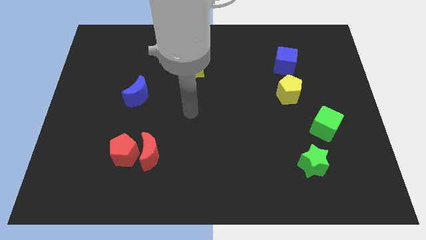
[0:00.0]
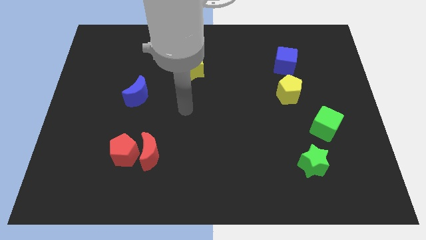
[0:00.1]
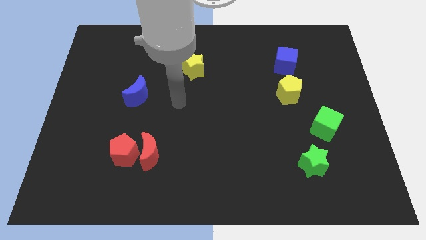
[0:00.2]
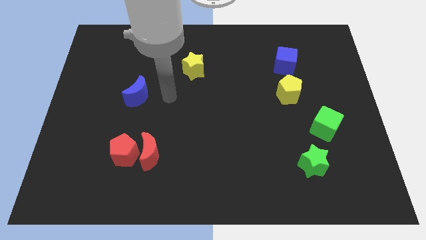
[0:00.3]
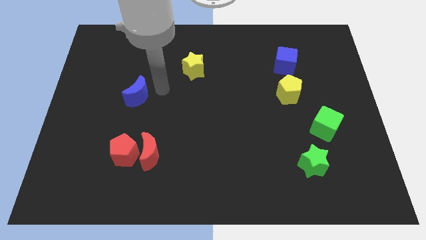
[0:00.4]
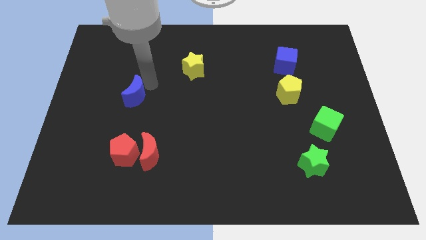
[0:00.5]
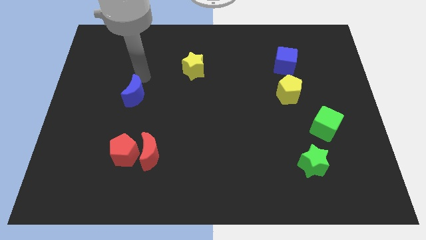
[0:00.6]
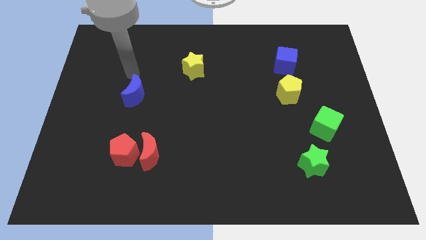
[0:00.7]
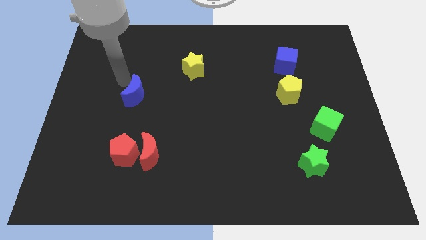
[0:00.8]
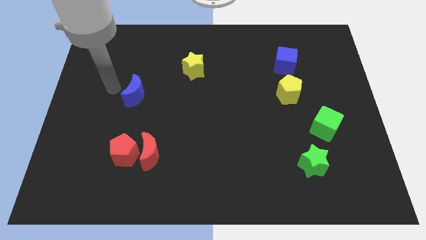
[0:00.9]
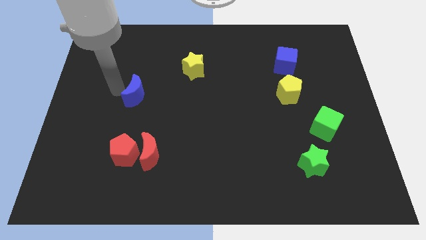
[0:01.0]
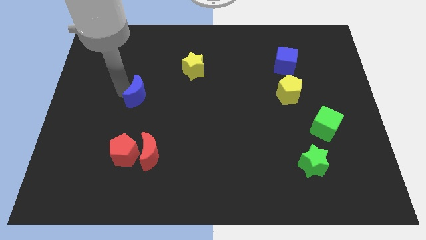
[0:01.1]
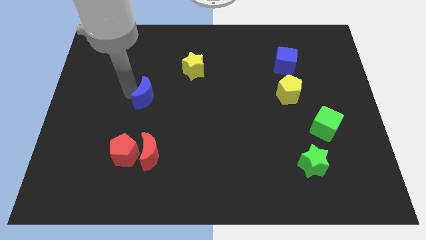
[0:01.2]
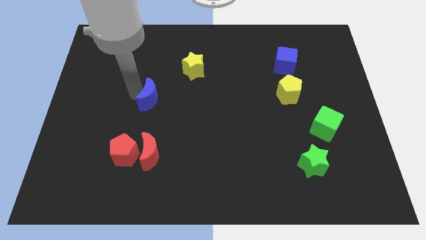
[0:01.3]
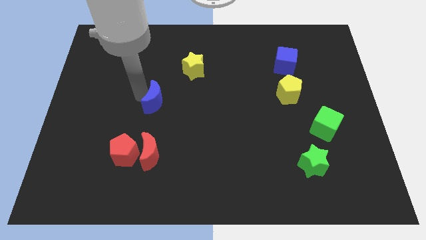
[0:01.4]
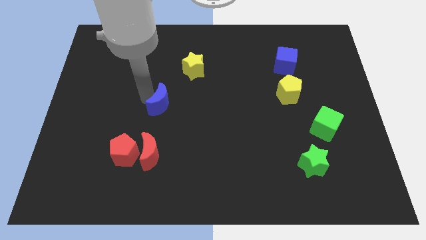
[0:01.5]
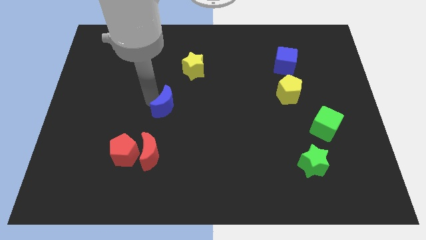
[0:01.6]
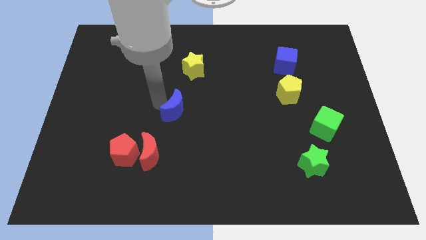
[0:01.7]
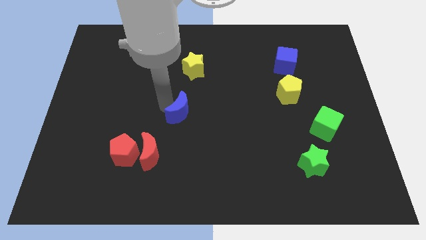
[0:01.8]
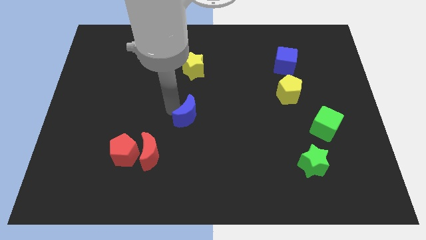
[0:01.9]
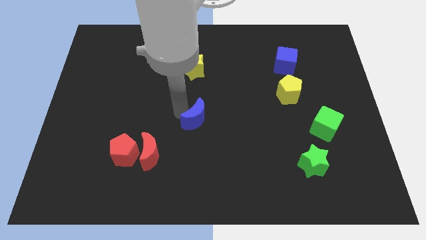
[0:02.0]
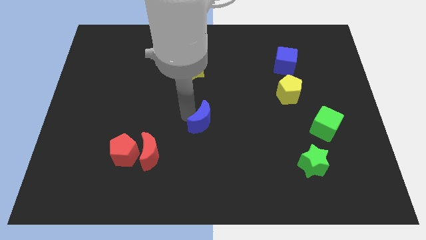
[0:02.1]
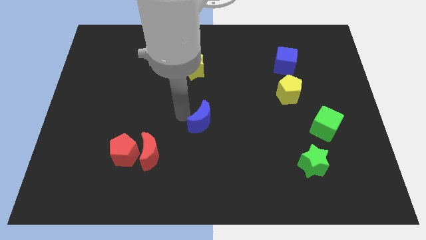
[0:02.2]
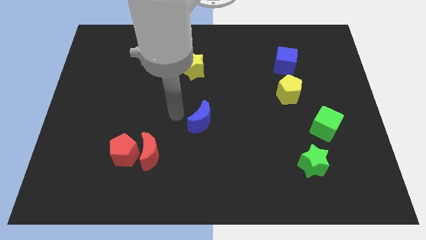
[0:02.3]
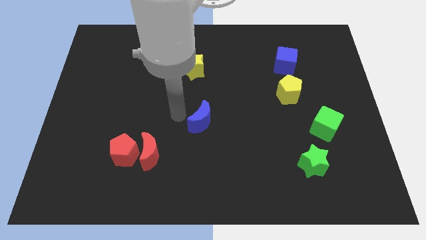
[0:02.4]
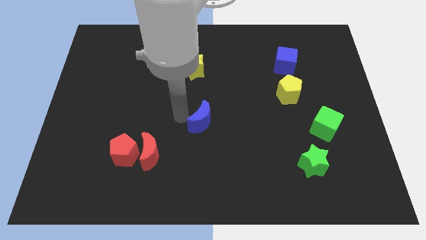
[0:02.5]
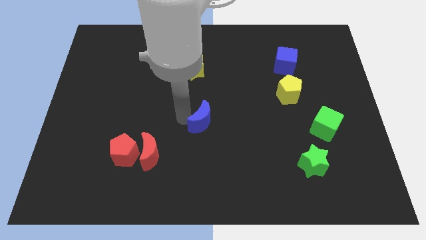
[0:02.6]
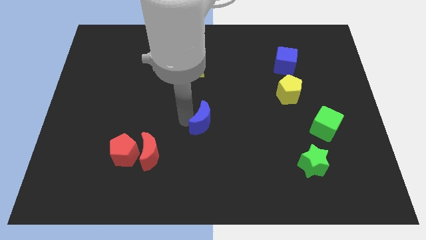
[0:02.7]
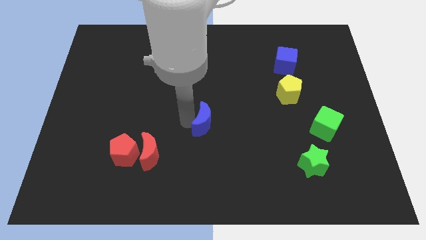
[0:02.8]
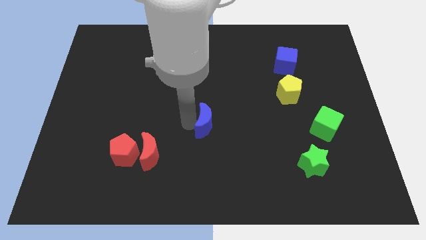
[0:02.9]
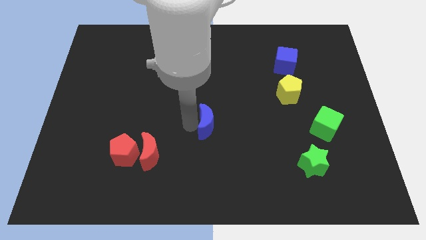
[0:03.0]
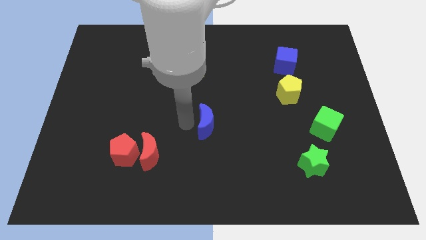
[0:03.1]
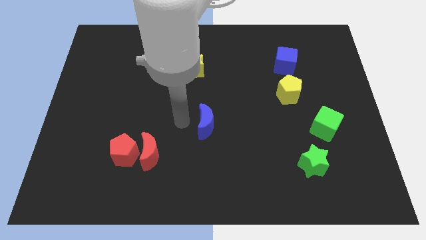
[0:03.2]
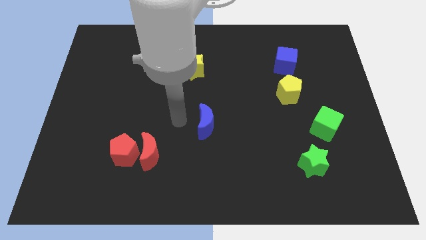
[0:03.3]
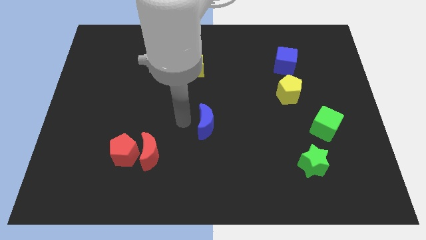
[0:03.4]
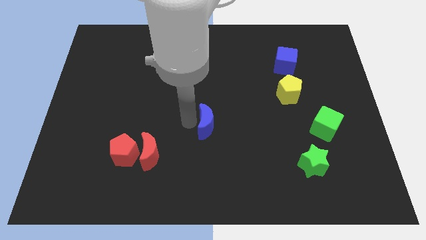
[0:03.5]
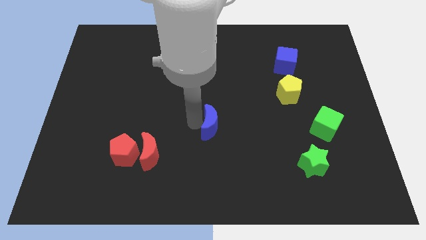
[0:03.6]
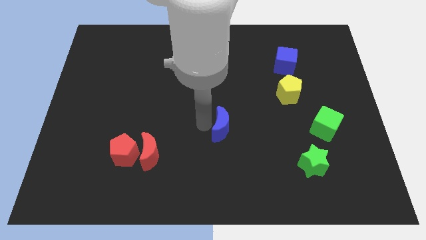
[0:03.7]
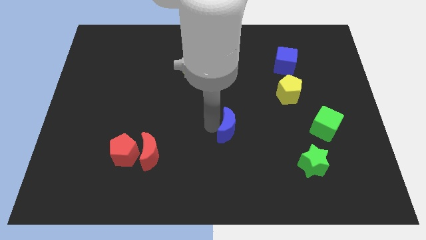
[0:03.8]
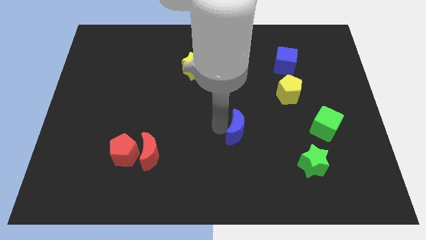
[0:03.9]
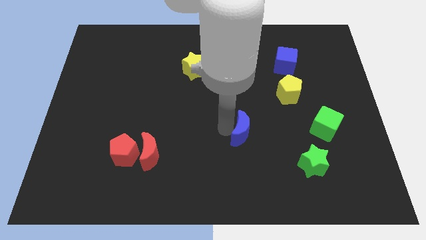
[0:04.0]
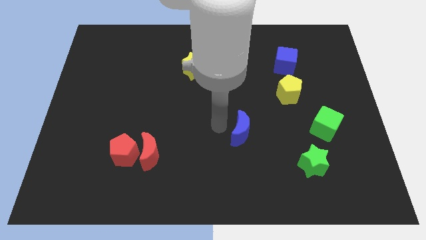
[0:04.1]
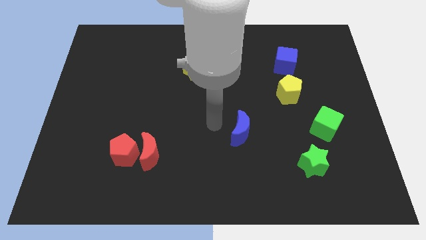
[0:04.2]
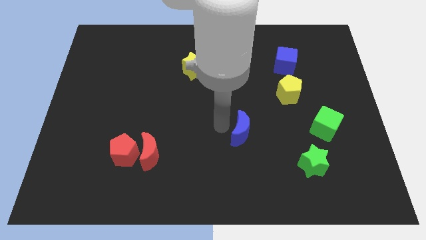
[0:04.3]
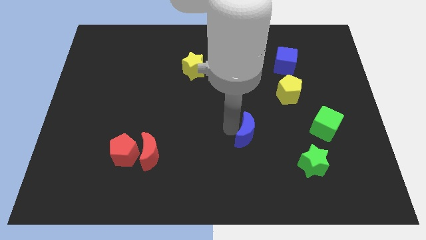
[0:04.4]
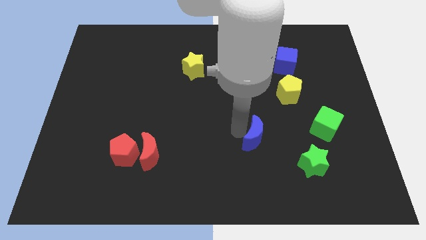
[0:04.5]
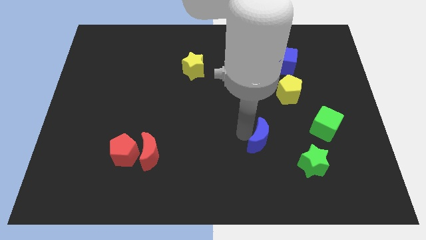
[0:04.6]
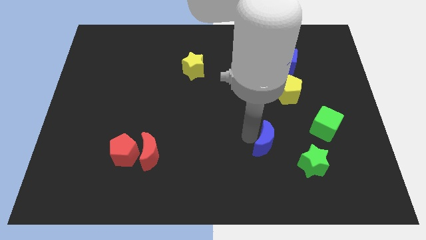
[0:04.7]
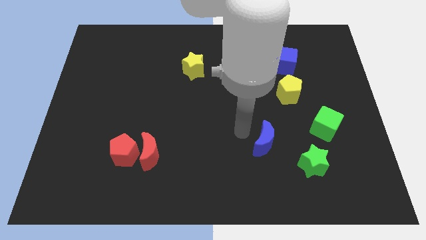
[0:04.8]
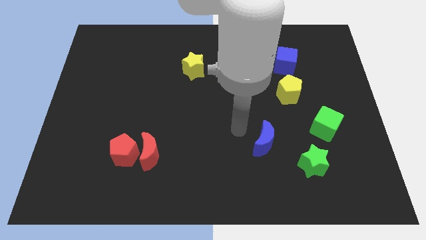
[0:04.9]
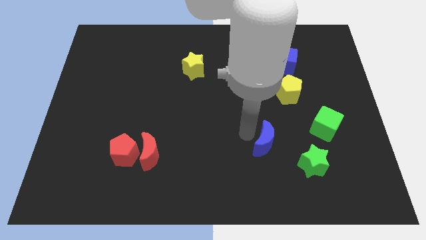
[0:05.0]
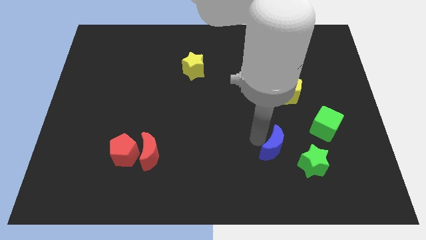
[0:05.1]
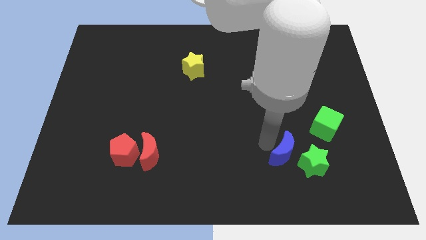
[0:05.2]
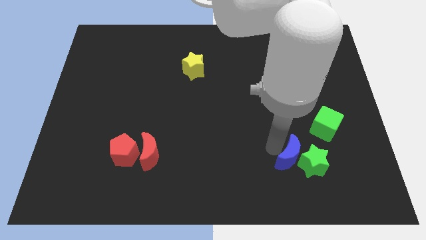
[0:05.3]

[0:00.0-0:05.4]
push the blue moon to the green star

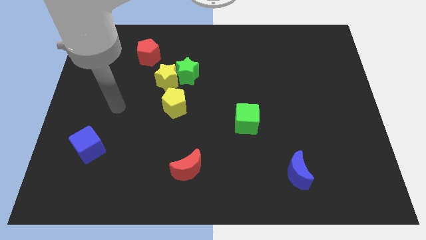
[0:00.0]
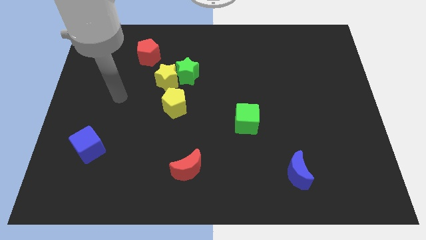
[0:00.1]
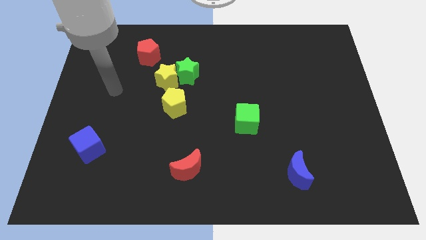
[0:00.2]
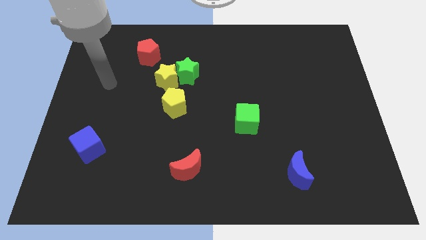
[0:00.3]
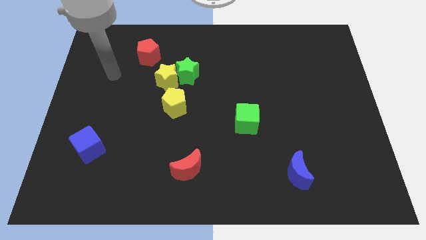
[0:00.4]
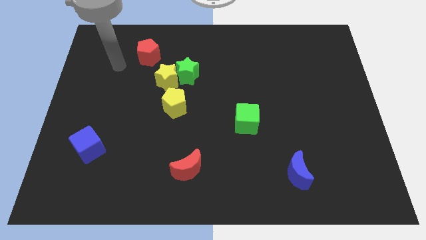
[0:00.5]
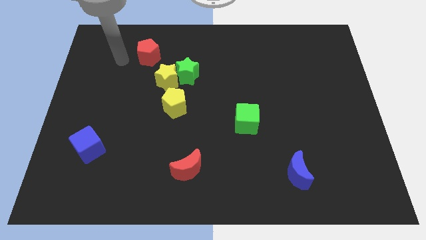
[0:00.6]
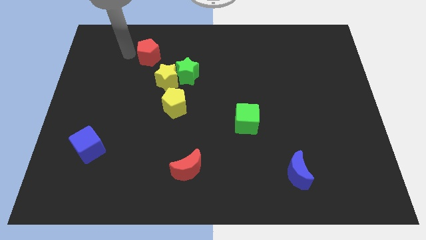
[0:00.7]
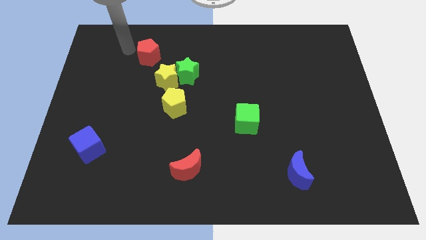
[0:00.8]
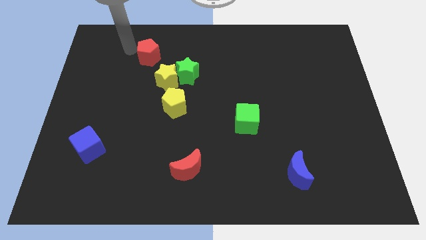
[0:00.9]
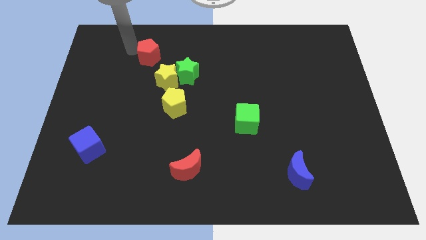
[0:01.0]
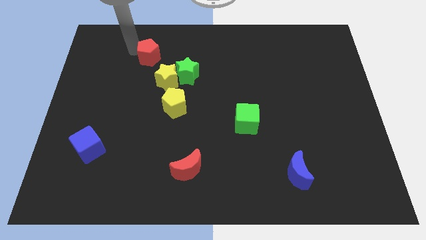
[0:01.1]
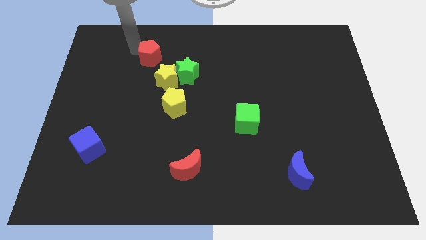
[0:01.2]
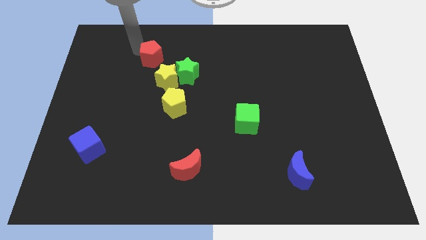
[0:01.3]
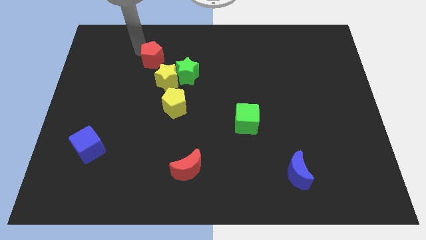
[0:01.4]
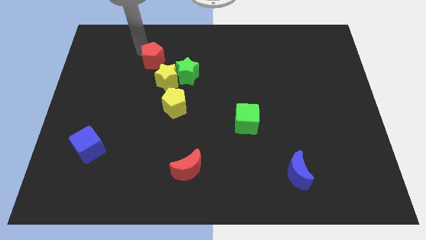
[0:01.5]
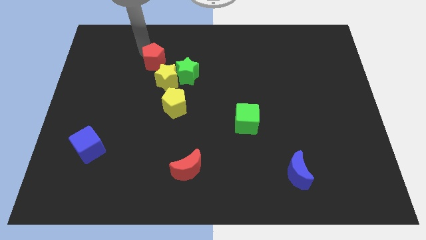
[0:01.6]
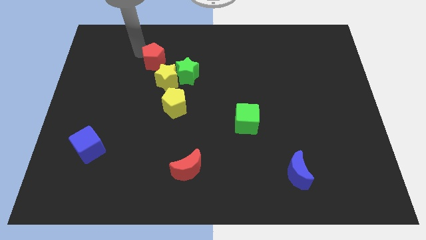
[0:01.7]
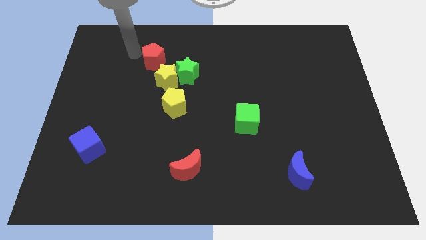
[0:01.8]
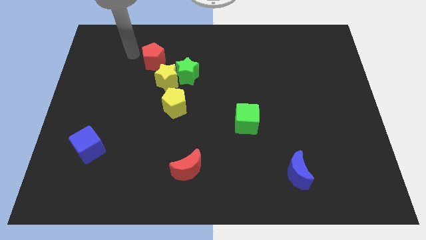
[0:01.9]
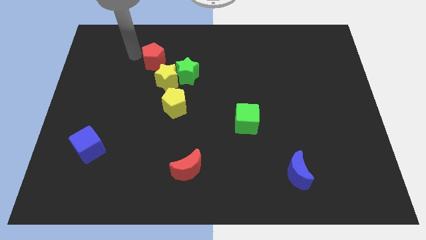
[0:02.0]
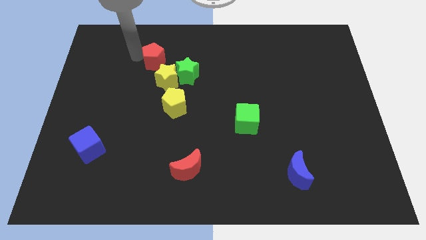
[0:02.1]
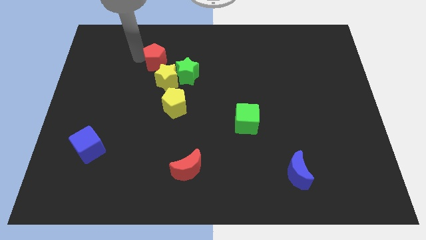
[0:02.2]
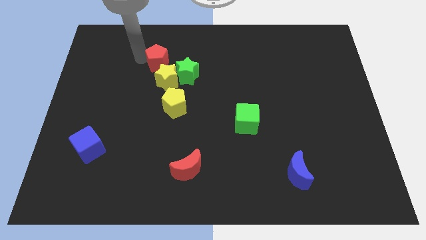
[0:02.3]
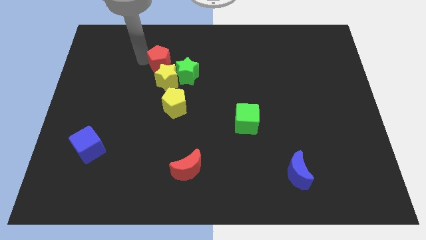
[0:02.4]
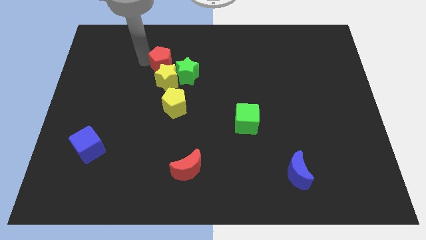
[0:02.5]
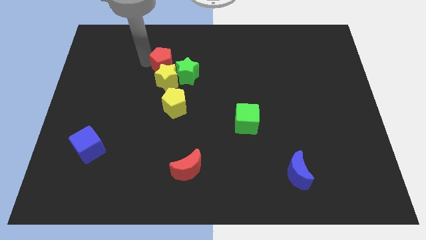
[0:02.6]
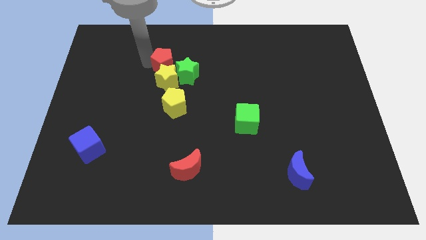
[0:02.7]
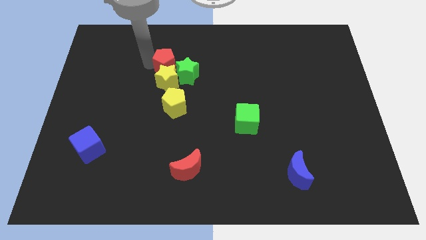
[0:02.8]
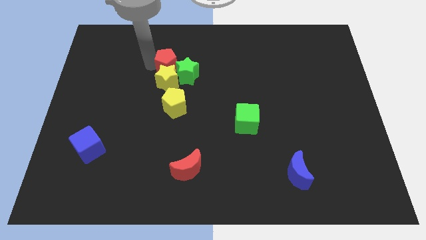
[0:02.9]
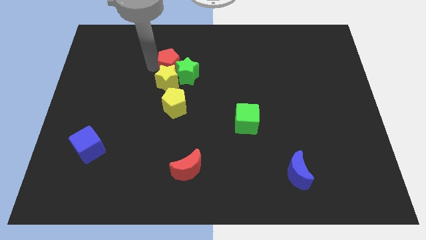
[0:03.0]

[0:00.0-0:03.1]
move the red pentagon towards the green star
